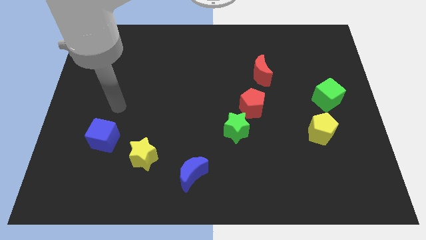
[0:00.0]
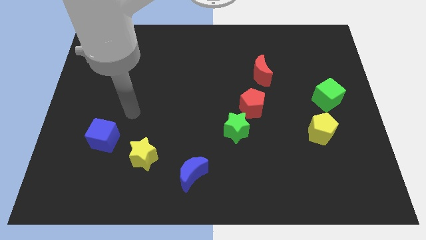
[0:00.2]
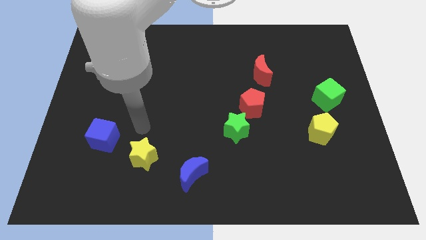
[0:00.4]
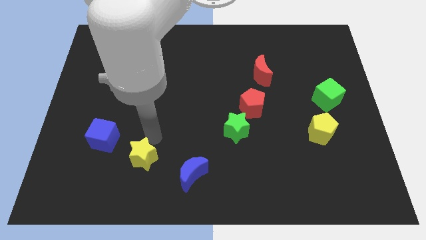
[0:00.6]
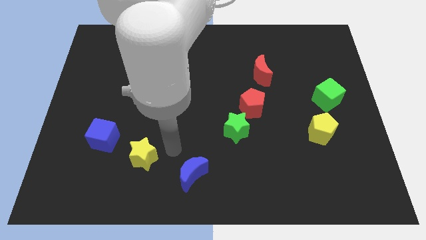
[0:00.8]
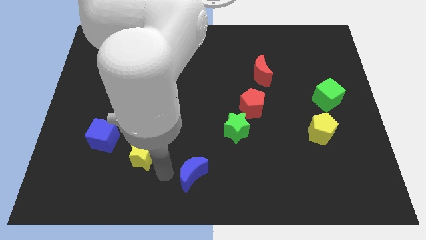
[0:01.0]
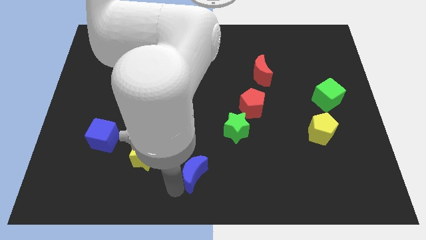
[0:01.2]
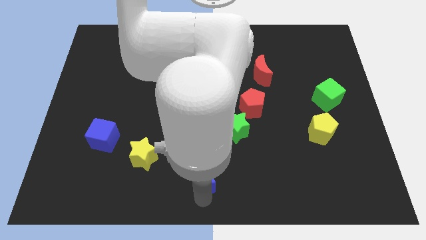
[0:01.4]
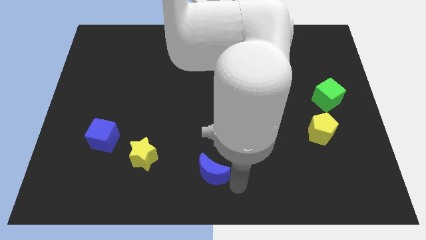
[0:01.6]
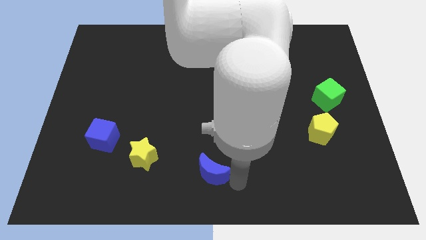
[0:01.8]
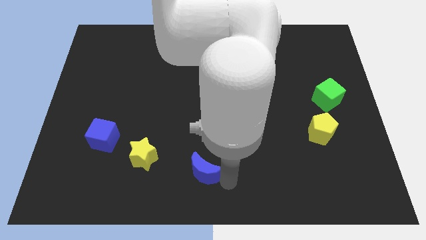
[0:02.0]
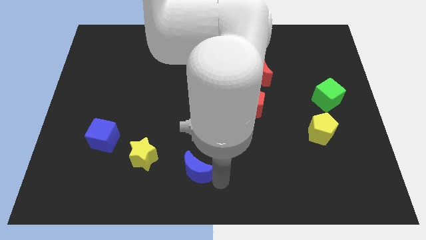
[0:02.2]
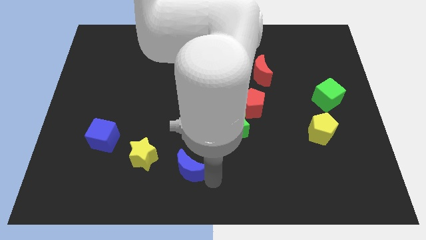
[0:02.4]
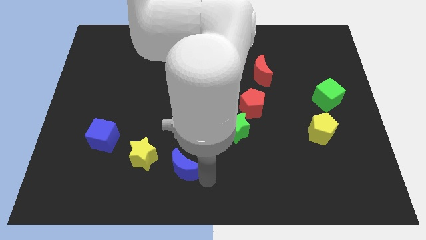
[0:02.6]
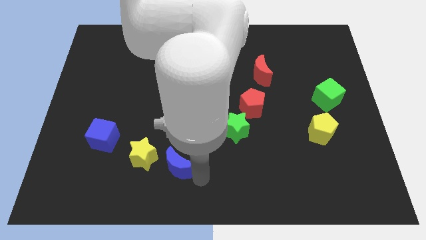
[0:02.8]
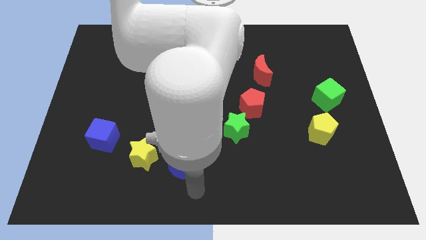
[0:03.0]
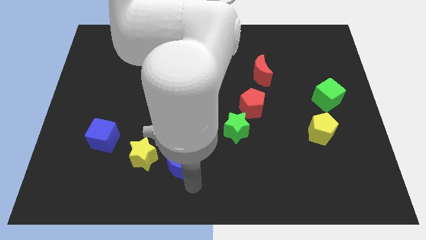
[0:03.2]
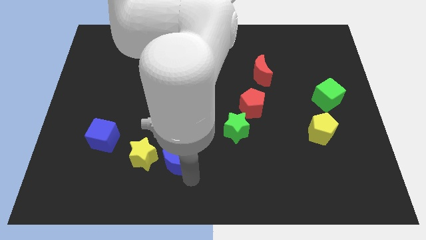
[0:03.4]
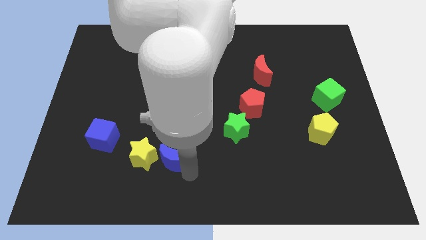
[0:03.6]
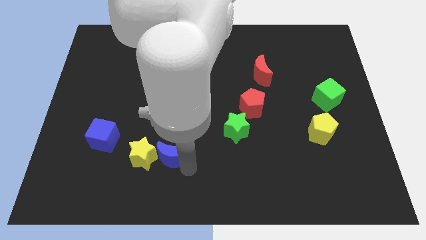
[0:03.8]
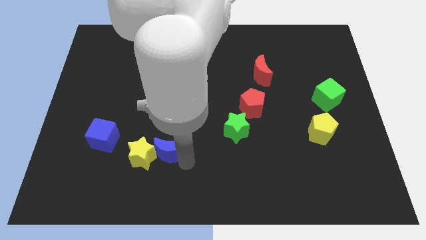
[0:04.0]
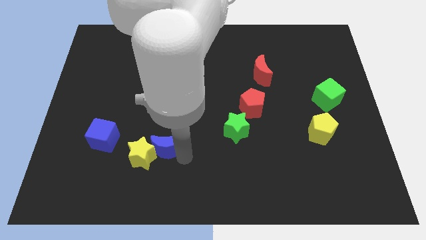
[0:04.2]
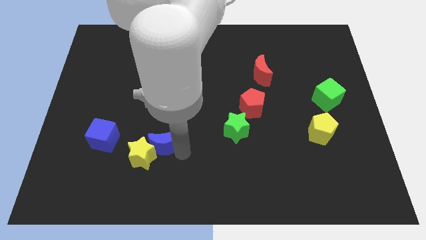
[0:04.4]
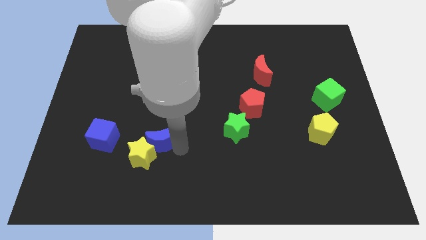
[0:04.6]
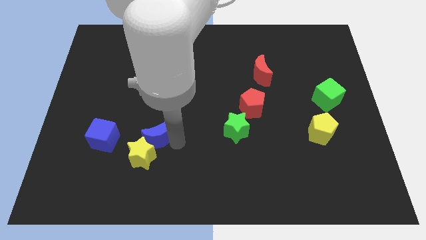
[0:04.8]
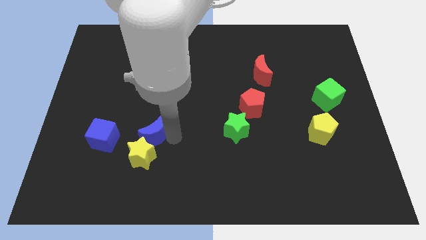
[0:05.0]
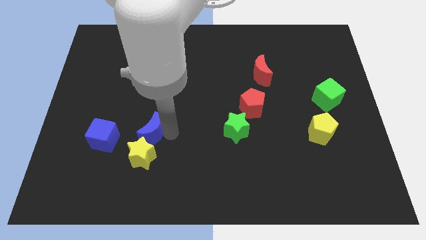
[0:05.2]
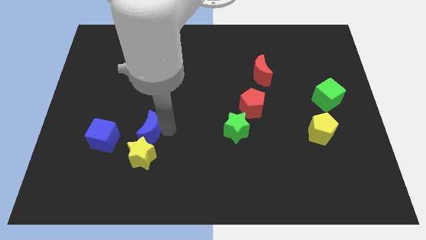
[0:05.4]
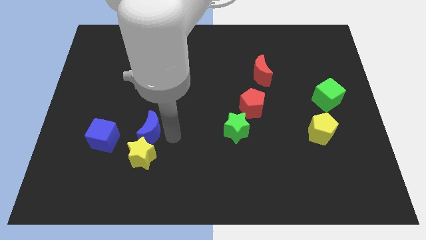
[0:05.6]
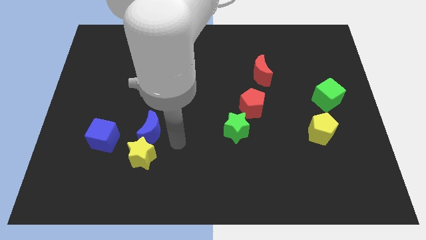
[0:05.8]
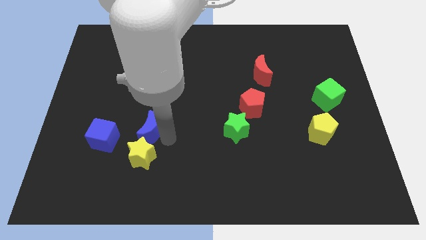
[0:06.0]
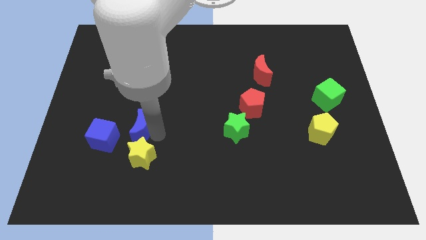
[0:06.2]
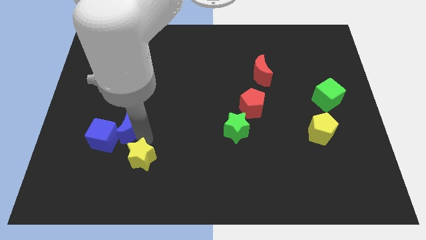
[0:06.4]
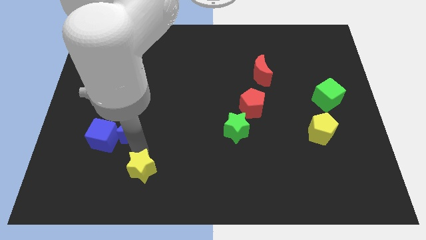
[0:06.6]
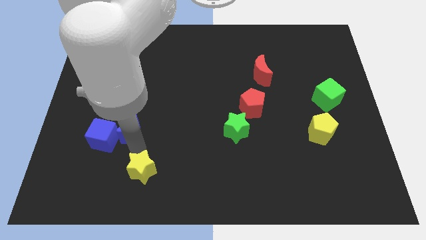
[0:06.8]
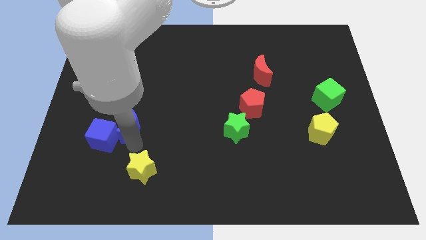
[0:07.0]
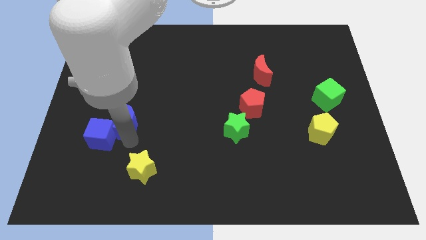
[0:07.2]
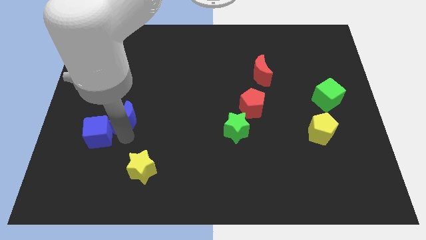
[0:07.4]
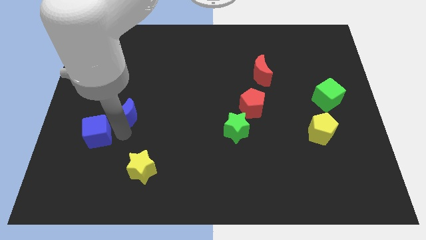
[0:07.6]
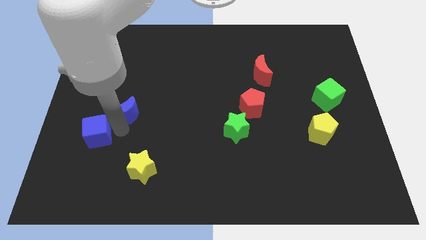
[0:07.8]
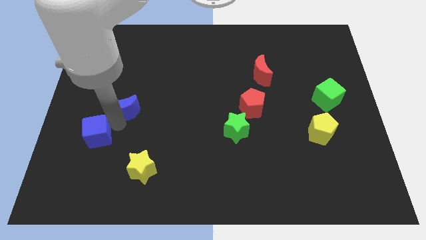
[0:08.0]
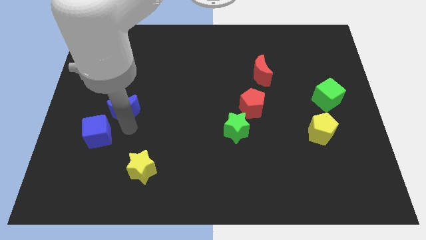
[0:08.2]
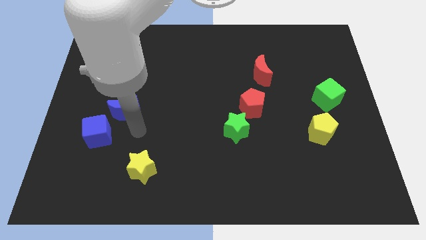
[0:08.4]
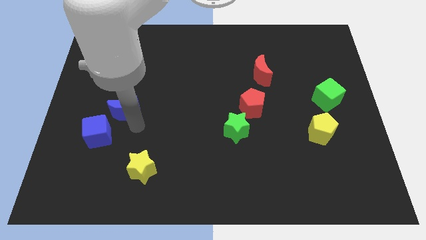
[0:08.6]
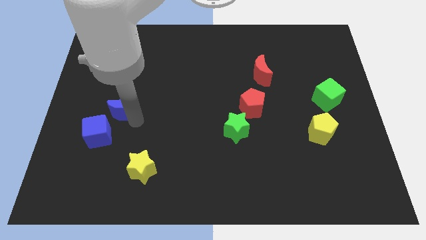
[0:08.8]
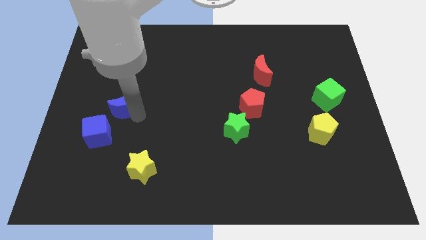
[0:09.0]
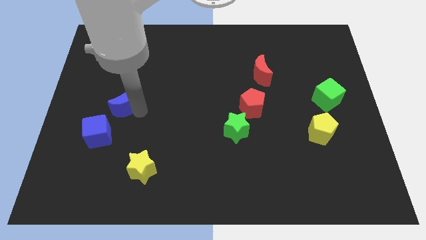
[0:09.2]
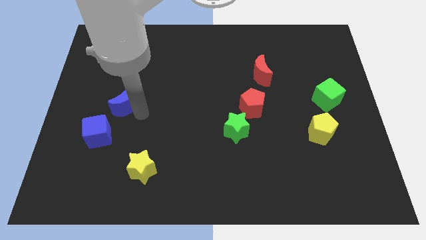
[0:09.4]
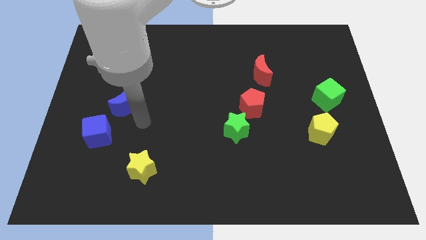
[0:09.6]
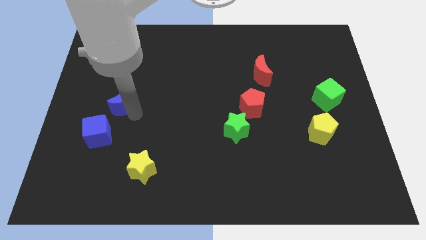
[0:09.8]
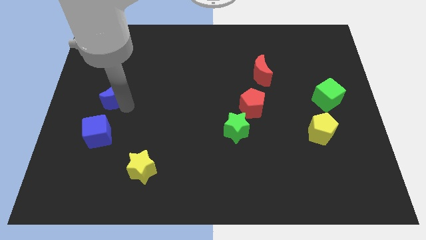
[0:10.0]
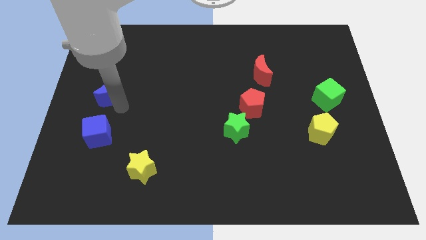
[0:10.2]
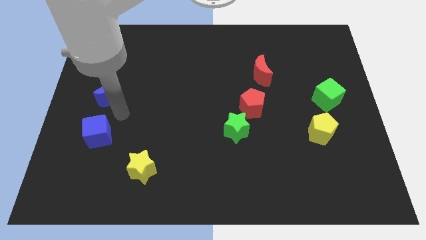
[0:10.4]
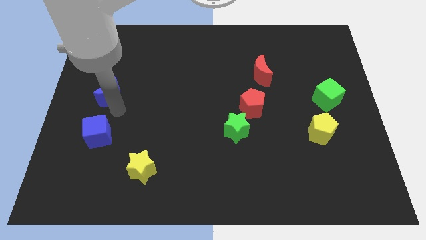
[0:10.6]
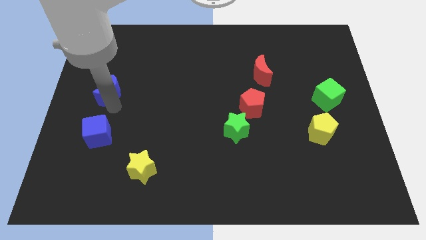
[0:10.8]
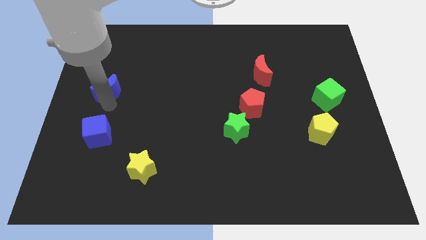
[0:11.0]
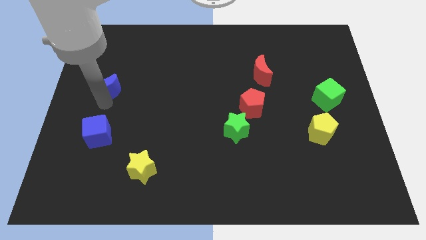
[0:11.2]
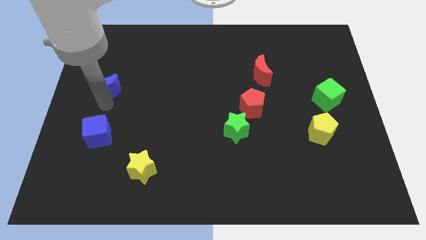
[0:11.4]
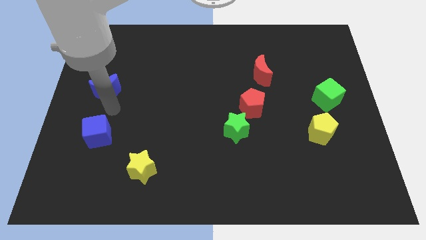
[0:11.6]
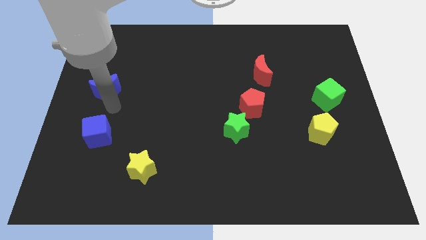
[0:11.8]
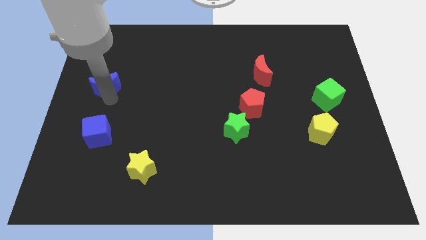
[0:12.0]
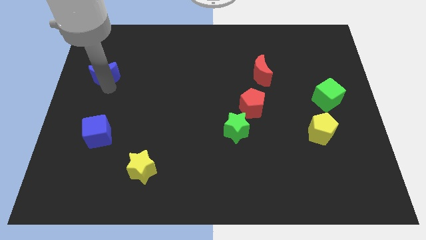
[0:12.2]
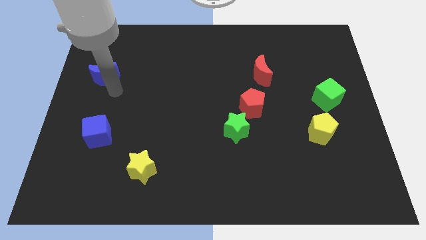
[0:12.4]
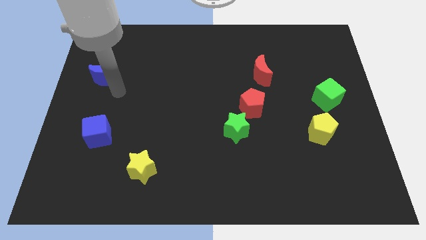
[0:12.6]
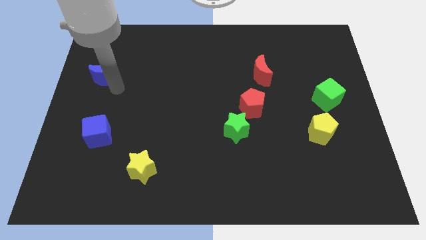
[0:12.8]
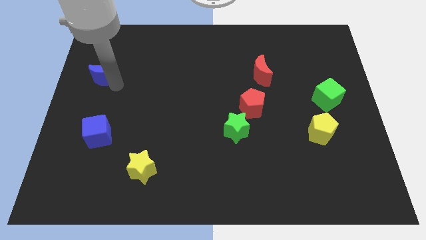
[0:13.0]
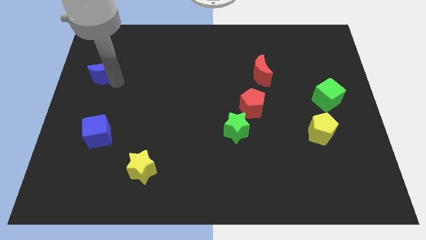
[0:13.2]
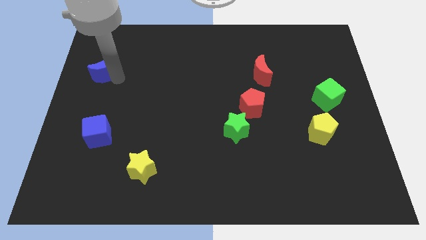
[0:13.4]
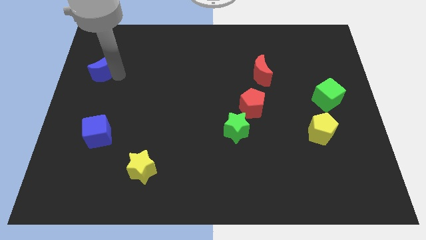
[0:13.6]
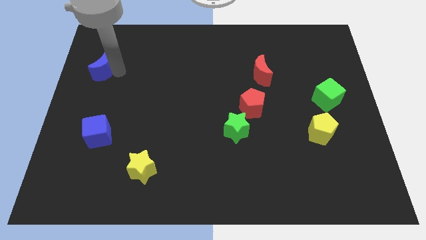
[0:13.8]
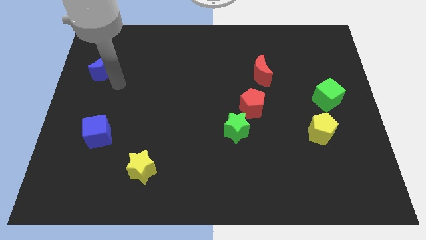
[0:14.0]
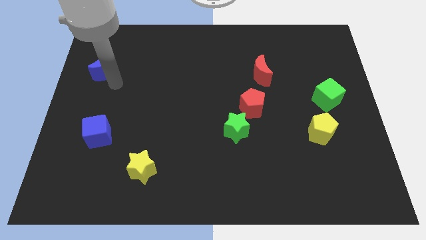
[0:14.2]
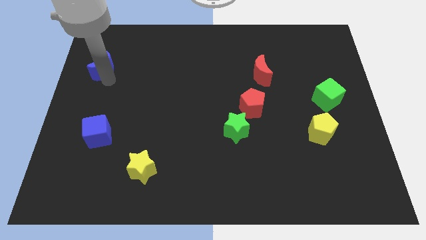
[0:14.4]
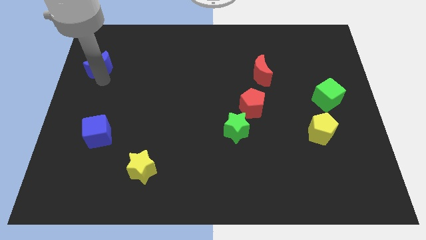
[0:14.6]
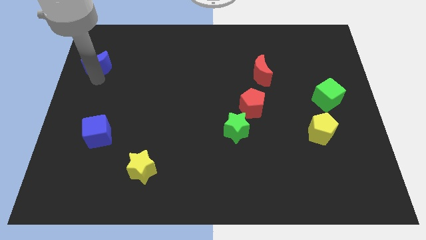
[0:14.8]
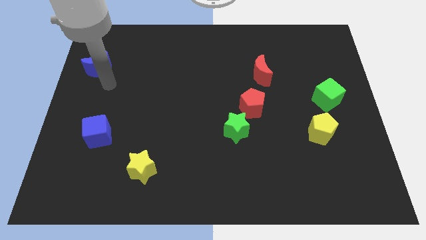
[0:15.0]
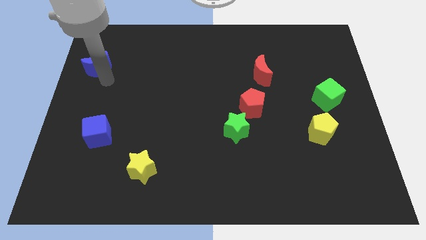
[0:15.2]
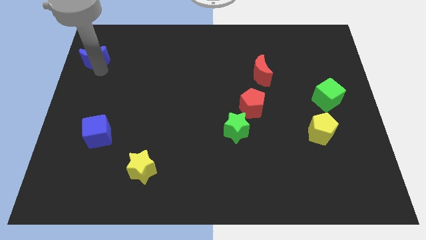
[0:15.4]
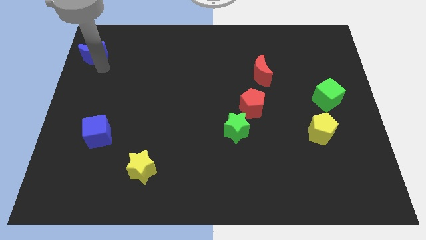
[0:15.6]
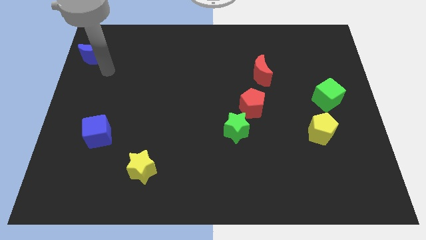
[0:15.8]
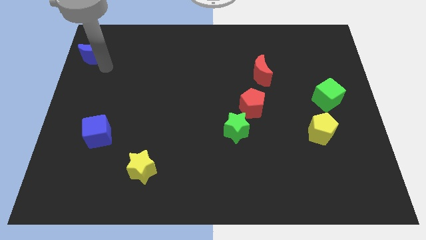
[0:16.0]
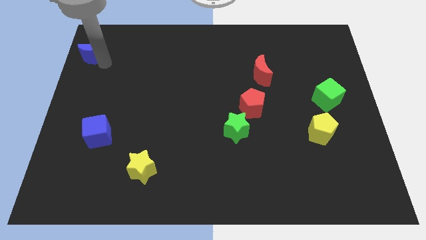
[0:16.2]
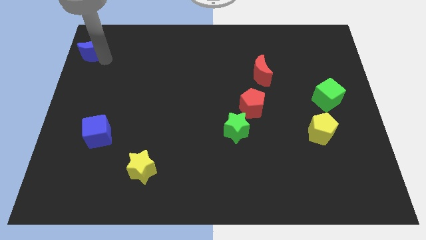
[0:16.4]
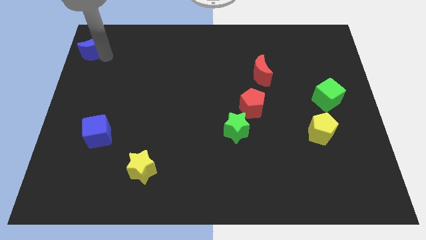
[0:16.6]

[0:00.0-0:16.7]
put the blue moon to the upper left corner
